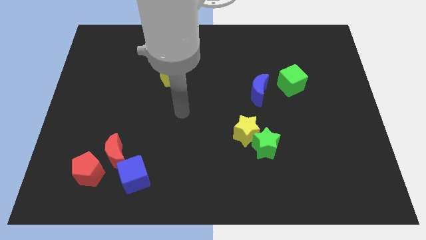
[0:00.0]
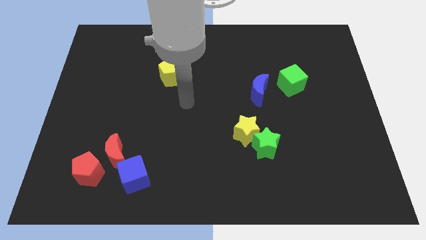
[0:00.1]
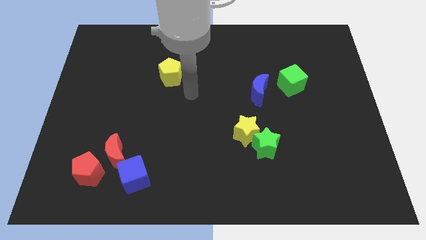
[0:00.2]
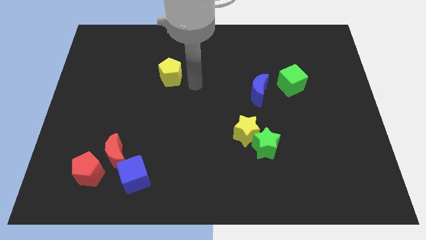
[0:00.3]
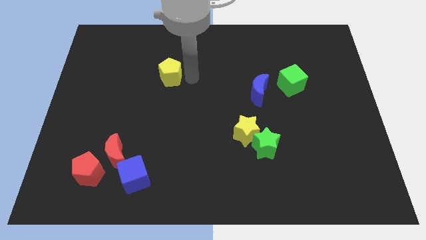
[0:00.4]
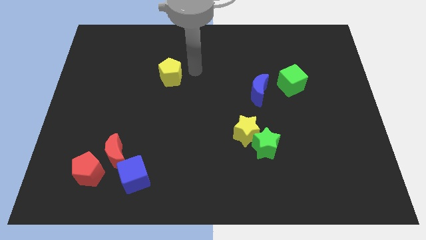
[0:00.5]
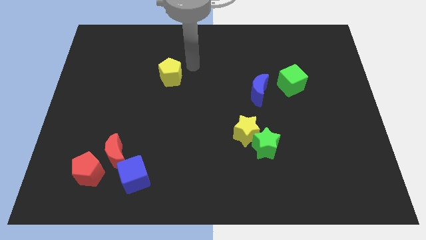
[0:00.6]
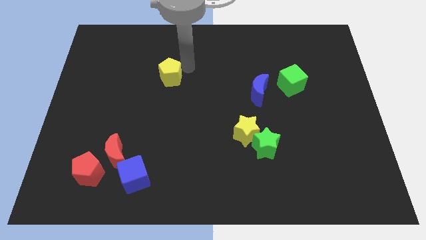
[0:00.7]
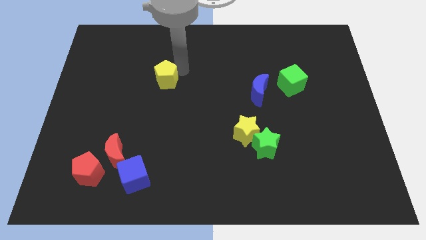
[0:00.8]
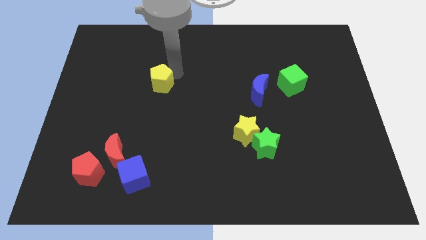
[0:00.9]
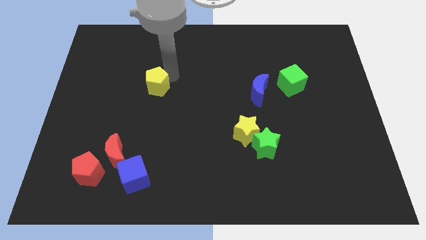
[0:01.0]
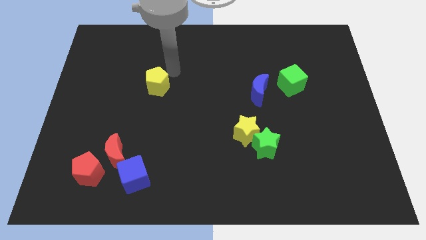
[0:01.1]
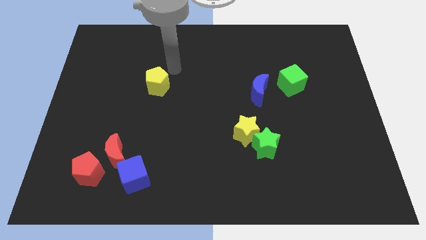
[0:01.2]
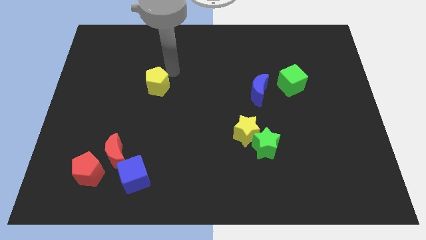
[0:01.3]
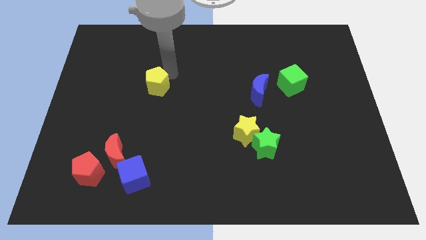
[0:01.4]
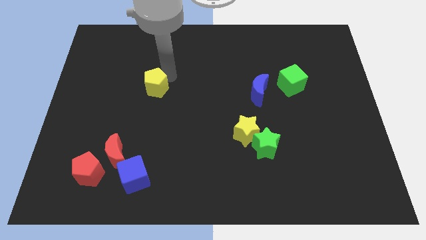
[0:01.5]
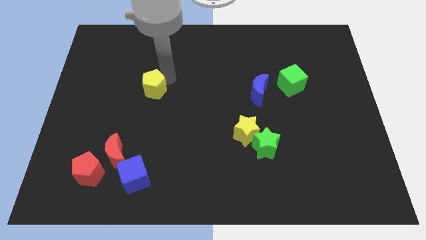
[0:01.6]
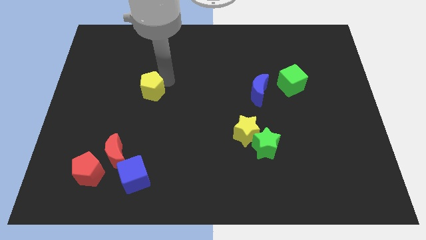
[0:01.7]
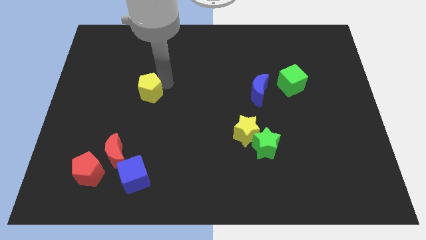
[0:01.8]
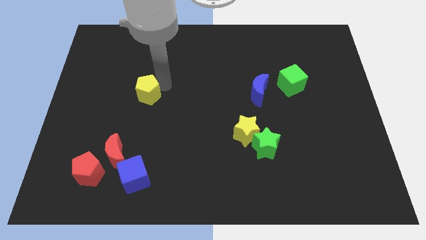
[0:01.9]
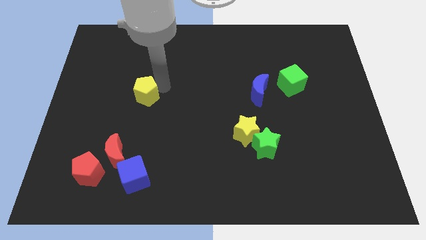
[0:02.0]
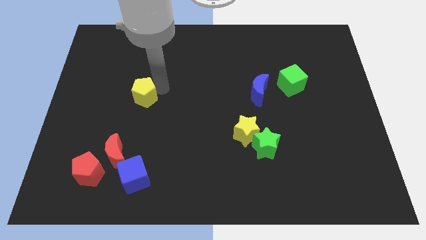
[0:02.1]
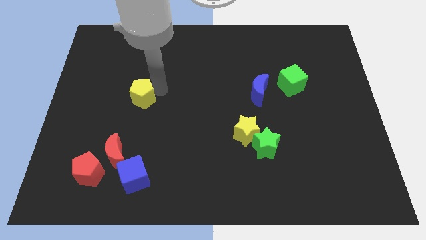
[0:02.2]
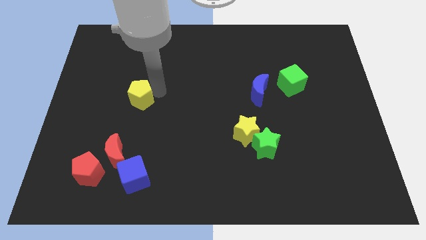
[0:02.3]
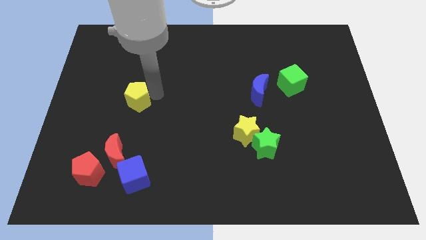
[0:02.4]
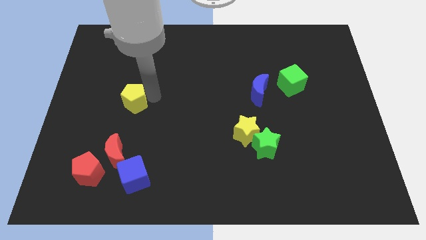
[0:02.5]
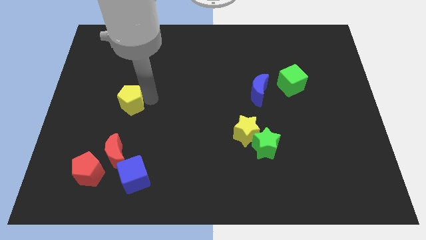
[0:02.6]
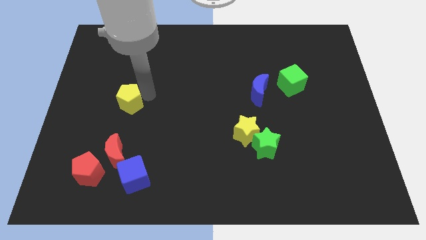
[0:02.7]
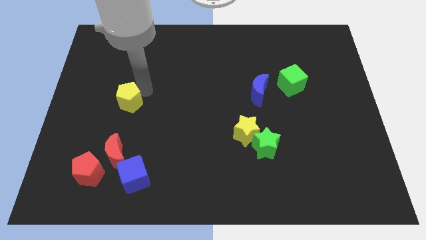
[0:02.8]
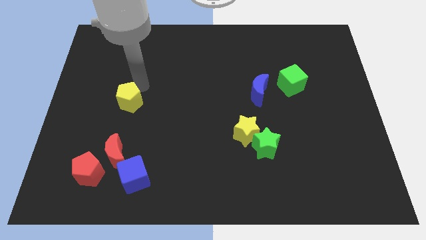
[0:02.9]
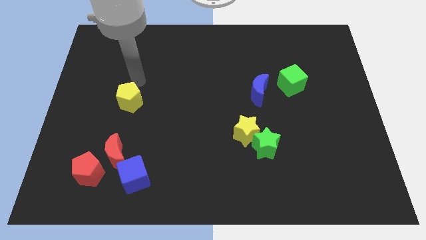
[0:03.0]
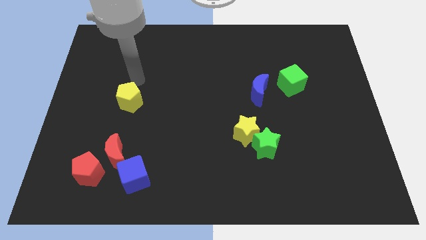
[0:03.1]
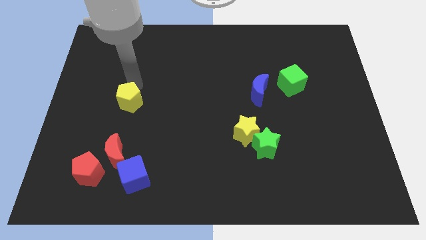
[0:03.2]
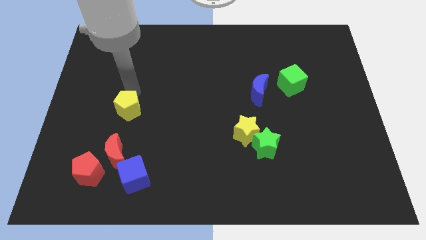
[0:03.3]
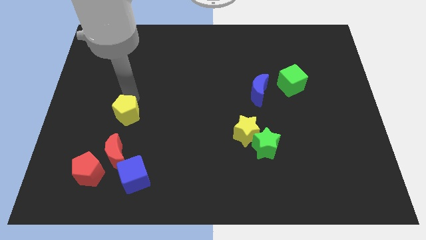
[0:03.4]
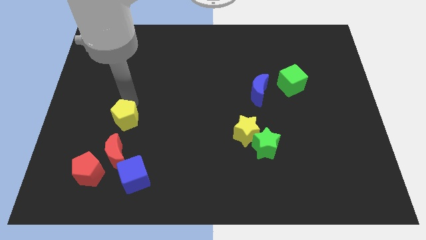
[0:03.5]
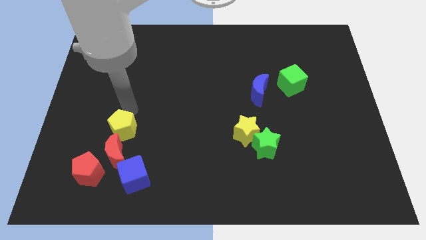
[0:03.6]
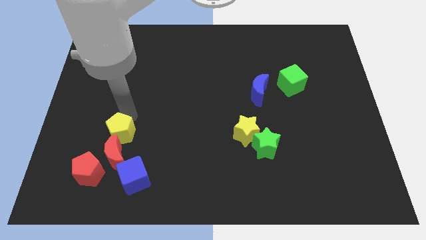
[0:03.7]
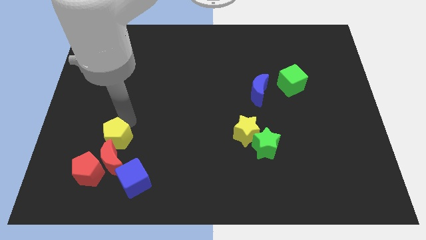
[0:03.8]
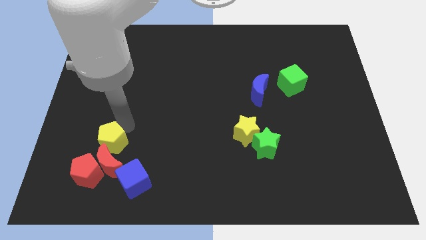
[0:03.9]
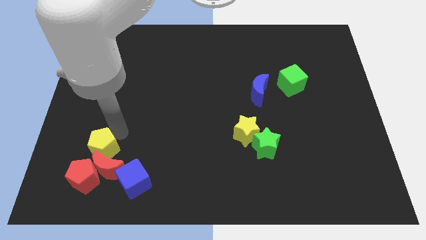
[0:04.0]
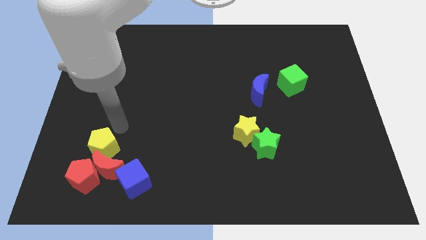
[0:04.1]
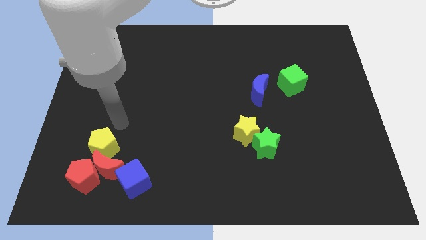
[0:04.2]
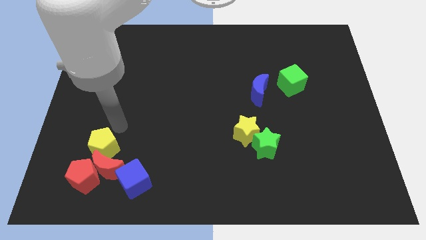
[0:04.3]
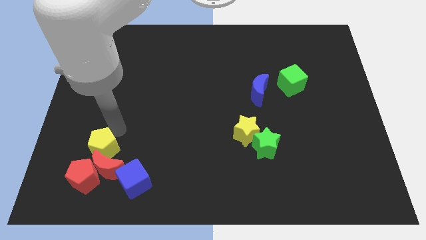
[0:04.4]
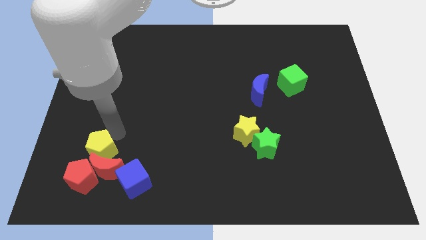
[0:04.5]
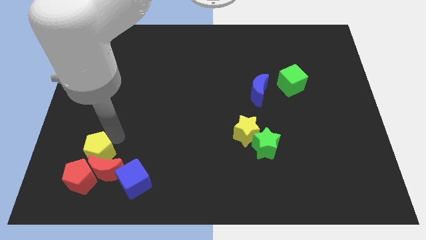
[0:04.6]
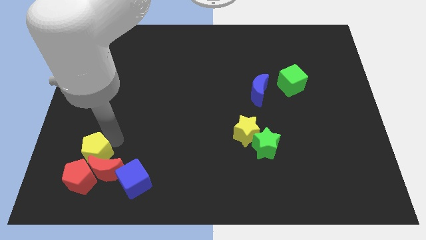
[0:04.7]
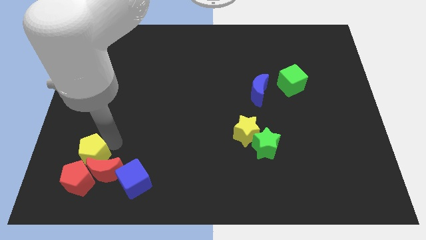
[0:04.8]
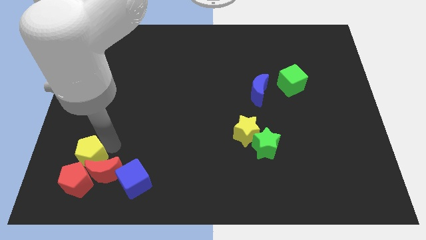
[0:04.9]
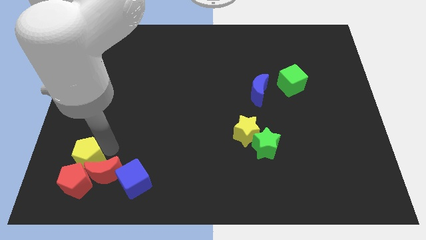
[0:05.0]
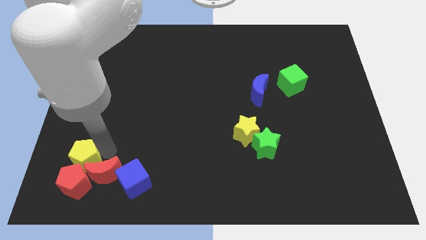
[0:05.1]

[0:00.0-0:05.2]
push the yellow pentagon towards the red pentagon

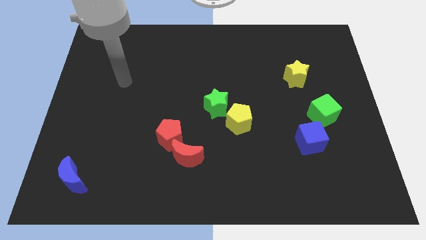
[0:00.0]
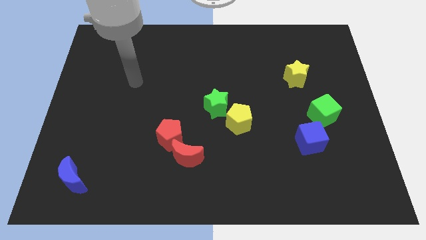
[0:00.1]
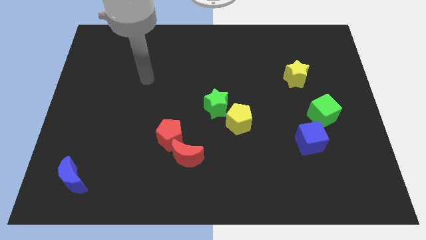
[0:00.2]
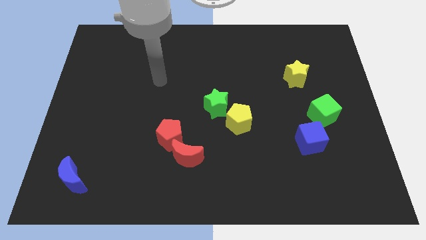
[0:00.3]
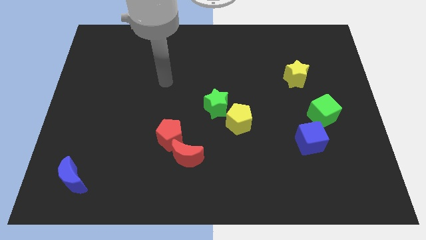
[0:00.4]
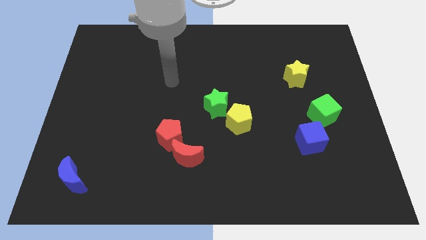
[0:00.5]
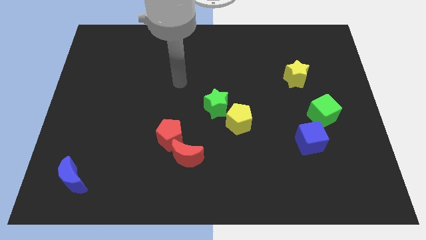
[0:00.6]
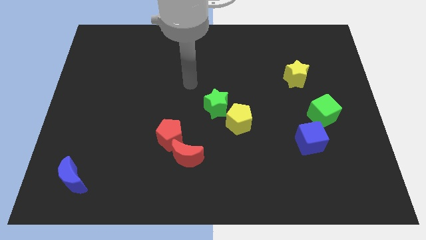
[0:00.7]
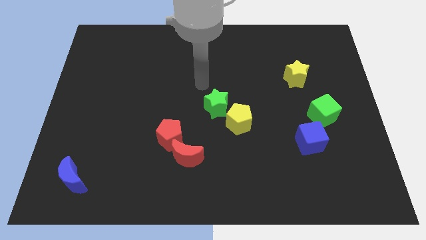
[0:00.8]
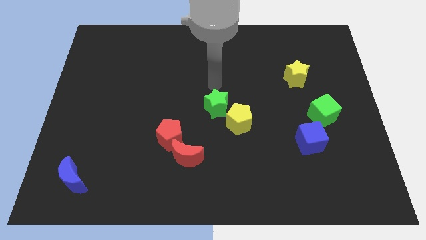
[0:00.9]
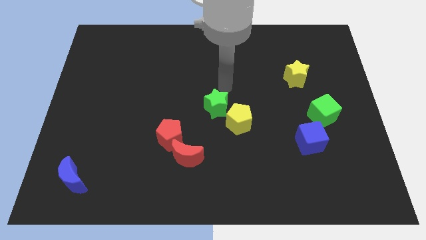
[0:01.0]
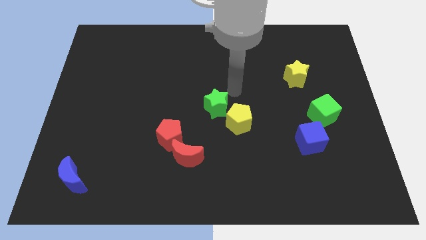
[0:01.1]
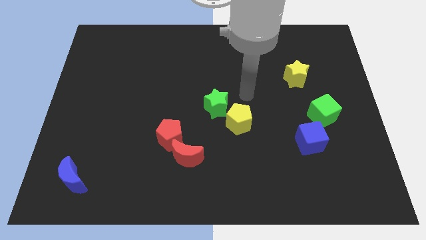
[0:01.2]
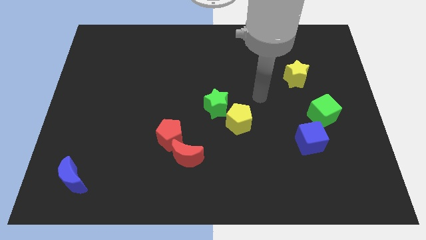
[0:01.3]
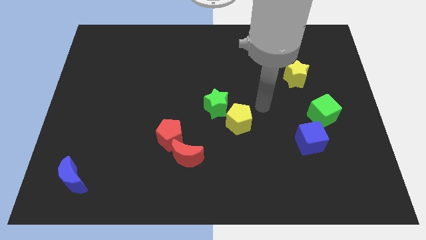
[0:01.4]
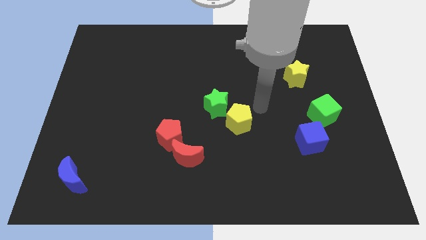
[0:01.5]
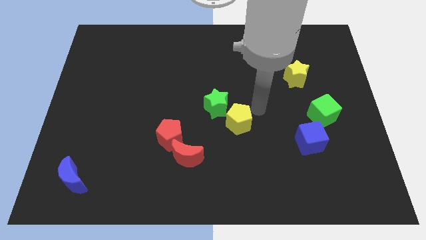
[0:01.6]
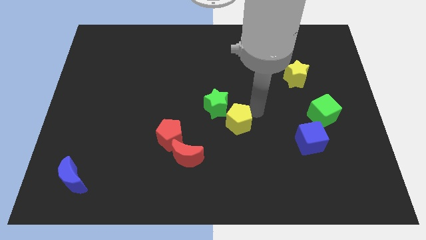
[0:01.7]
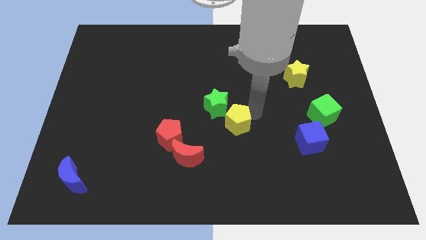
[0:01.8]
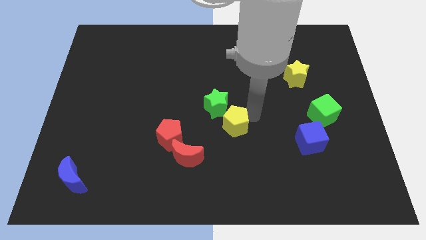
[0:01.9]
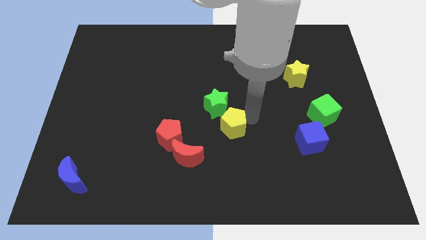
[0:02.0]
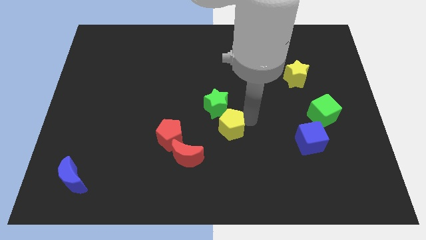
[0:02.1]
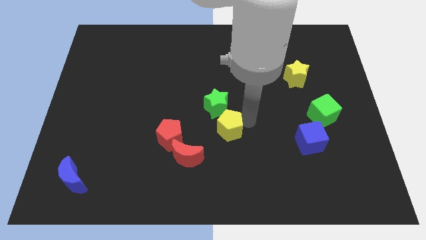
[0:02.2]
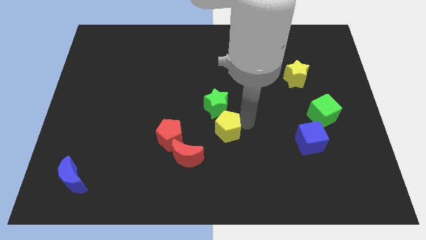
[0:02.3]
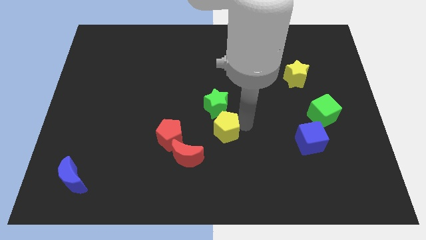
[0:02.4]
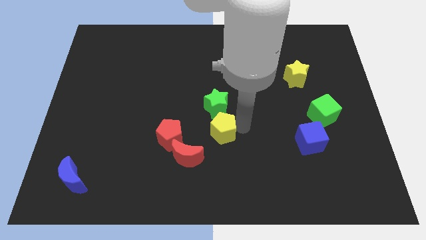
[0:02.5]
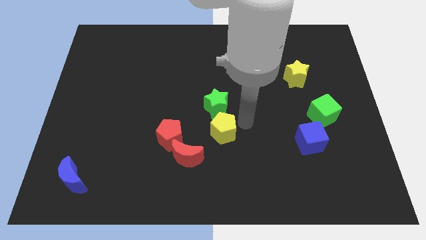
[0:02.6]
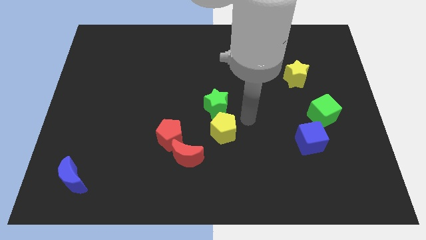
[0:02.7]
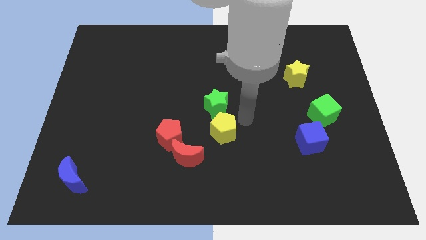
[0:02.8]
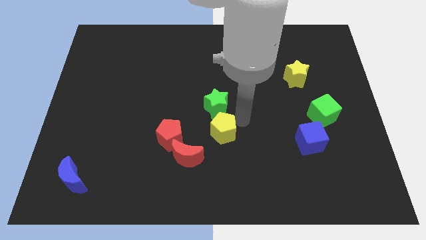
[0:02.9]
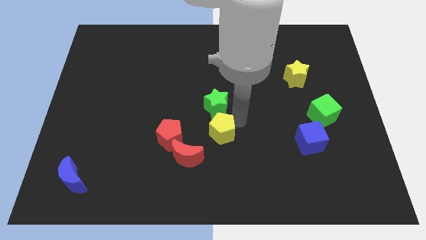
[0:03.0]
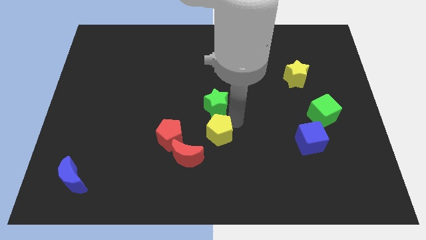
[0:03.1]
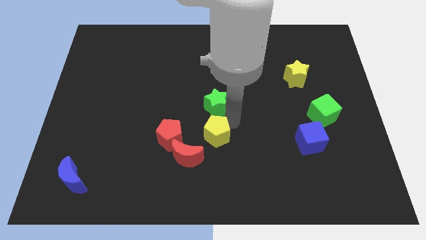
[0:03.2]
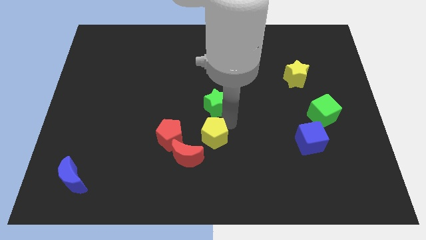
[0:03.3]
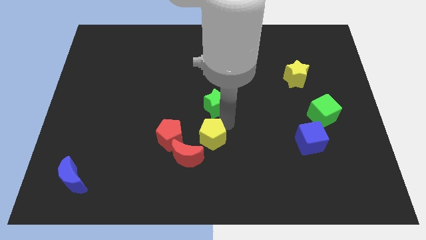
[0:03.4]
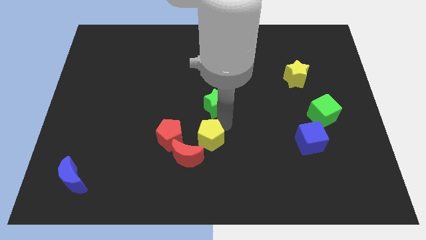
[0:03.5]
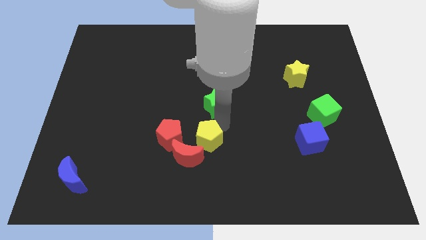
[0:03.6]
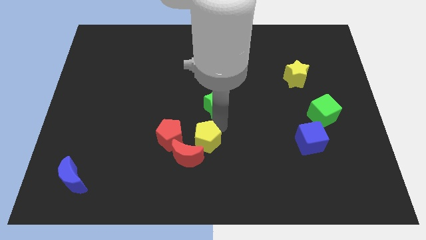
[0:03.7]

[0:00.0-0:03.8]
slide the yellow pentagon to the red moon
